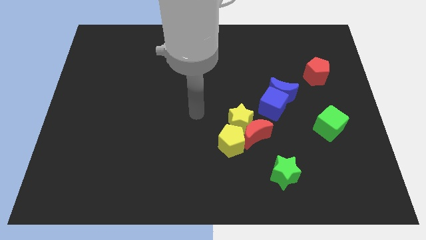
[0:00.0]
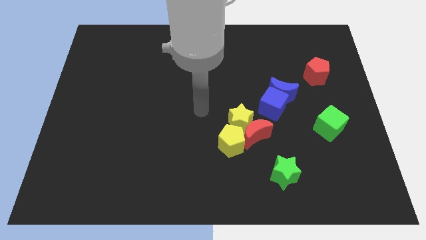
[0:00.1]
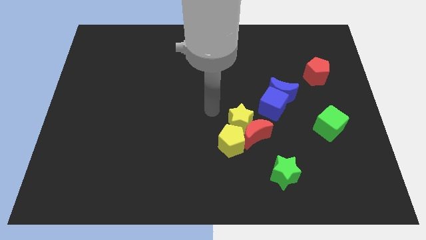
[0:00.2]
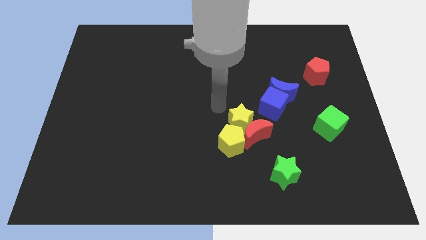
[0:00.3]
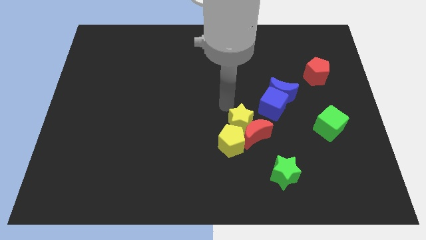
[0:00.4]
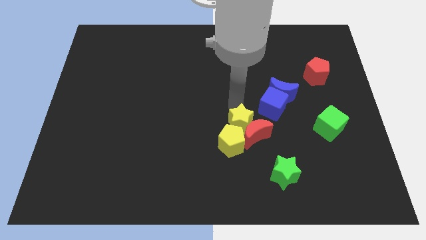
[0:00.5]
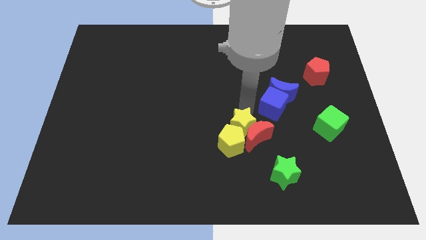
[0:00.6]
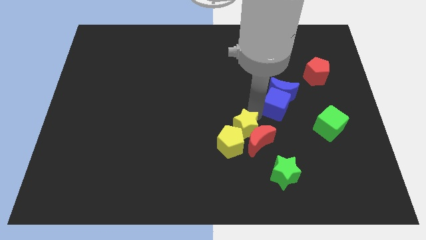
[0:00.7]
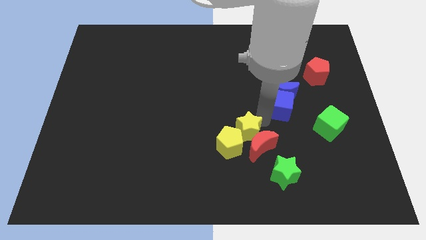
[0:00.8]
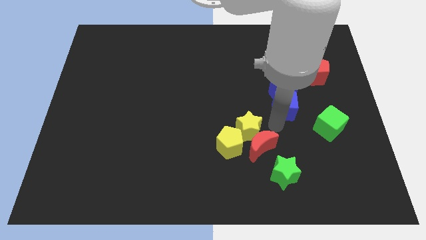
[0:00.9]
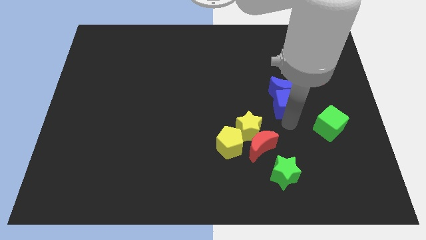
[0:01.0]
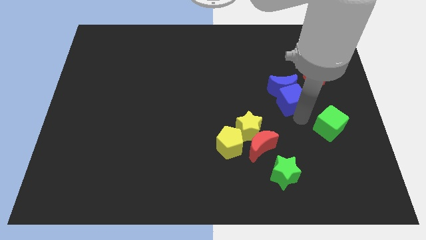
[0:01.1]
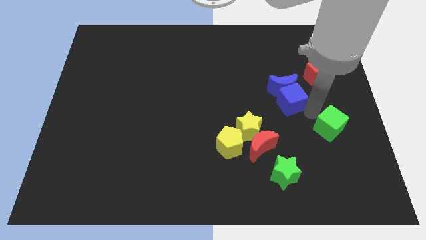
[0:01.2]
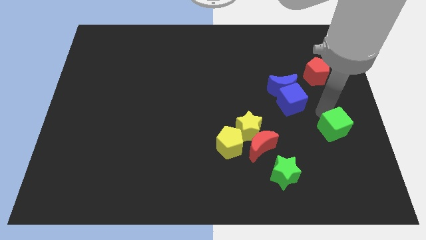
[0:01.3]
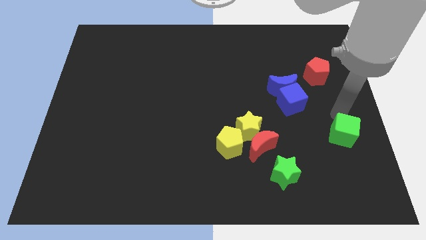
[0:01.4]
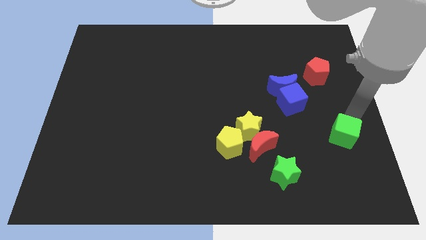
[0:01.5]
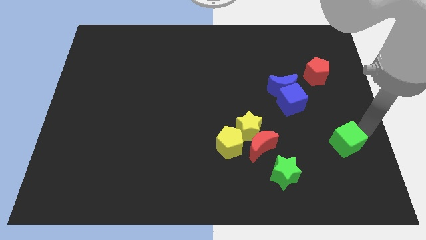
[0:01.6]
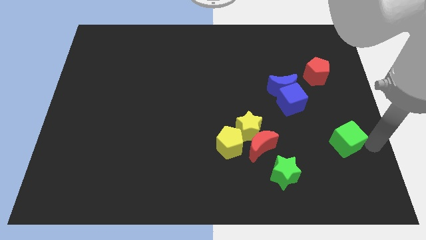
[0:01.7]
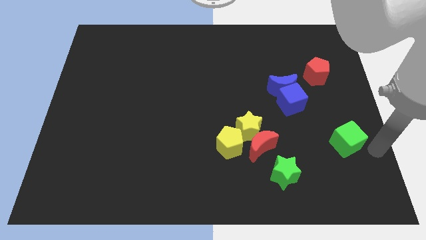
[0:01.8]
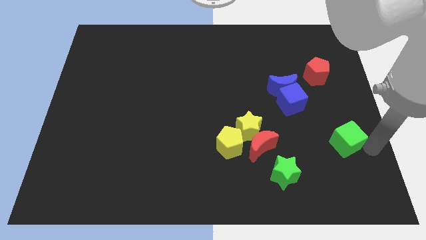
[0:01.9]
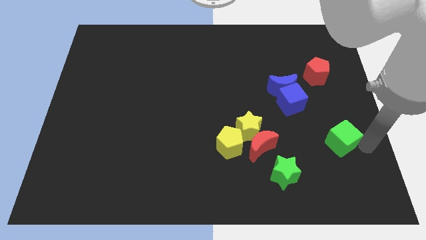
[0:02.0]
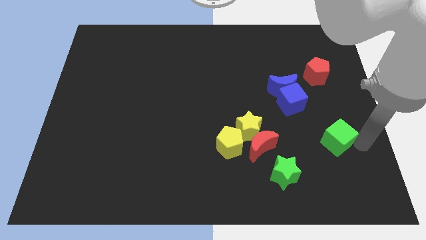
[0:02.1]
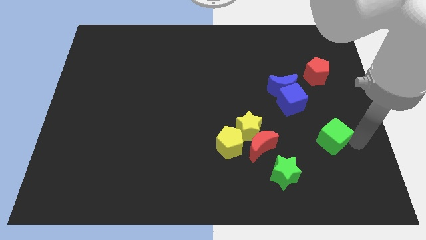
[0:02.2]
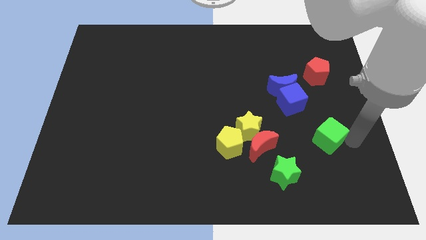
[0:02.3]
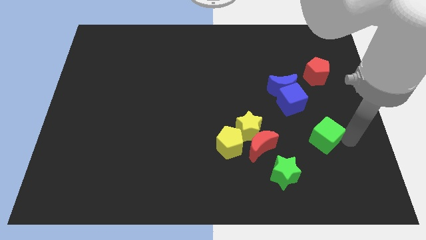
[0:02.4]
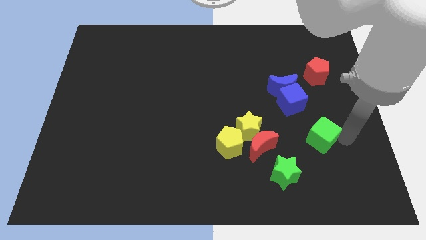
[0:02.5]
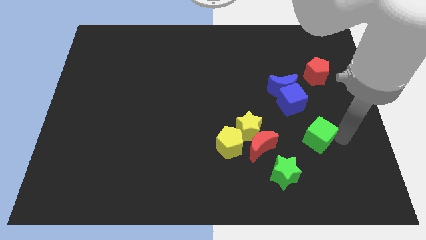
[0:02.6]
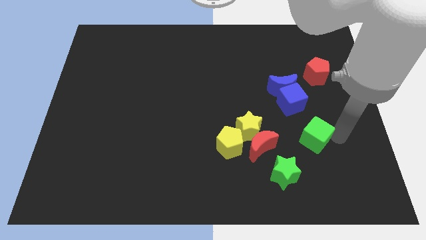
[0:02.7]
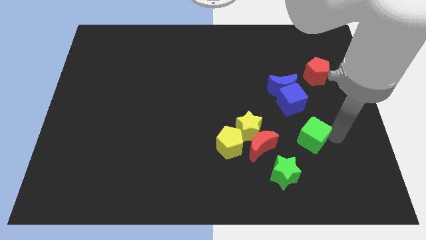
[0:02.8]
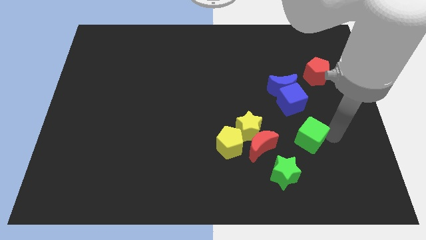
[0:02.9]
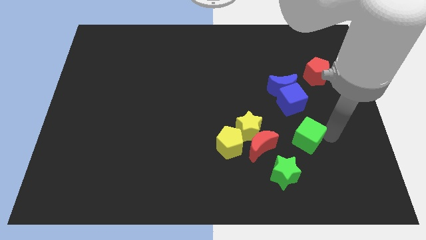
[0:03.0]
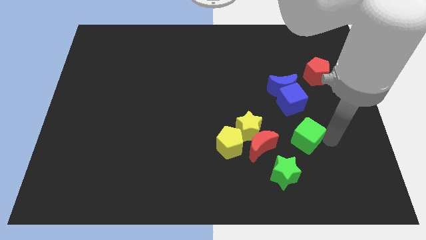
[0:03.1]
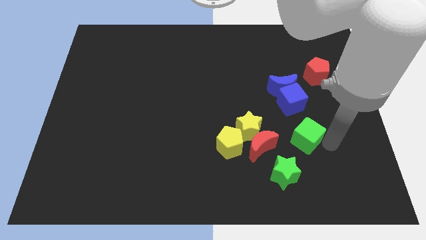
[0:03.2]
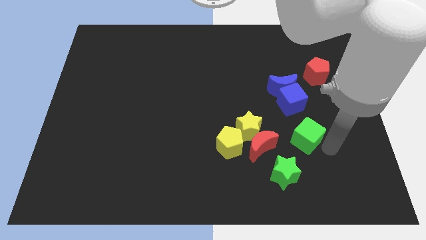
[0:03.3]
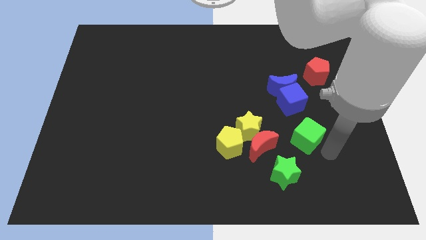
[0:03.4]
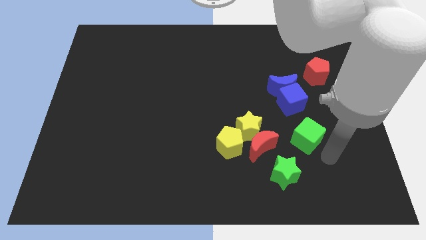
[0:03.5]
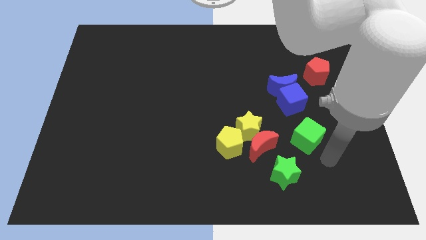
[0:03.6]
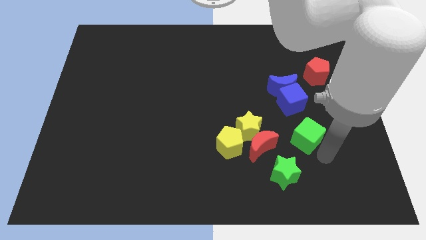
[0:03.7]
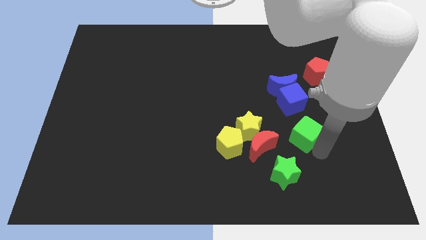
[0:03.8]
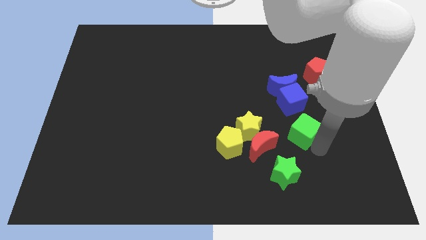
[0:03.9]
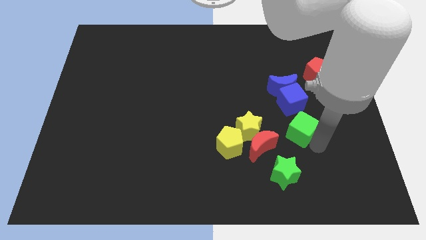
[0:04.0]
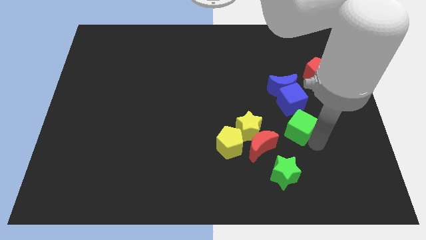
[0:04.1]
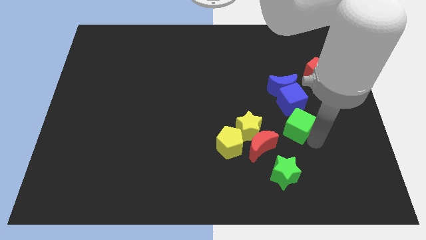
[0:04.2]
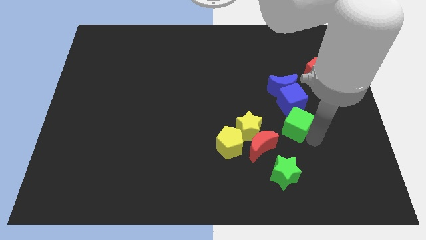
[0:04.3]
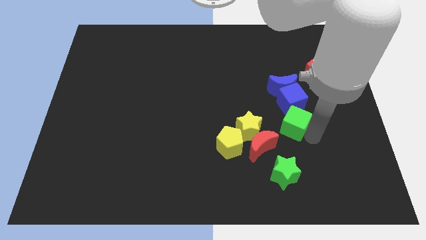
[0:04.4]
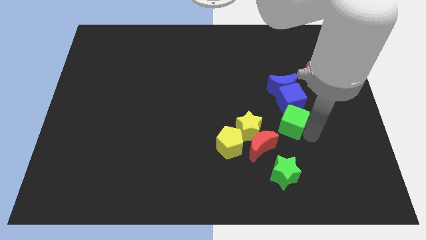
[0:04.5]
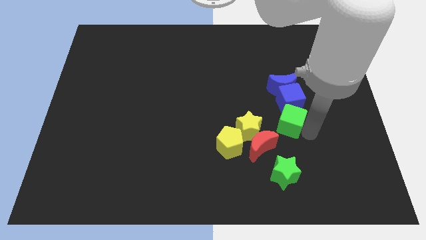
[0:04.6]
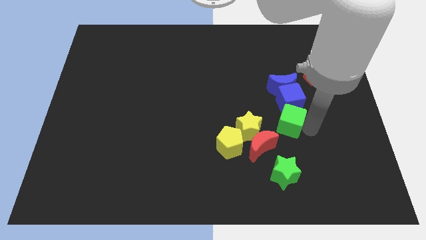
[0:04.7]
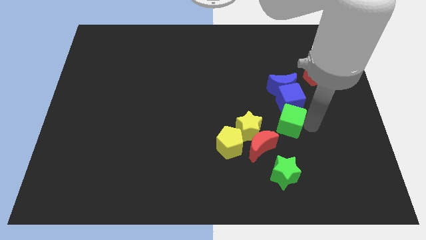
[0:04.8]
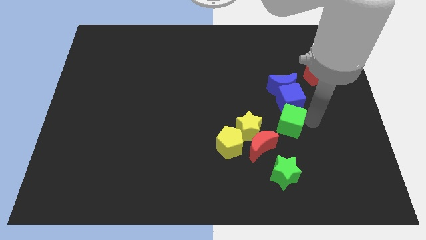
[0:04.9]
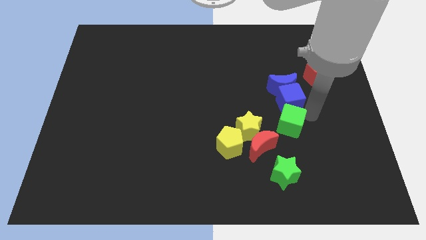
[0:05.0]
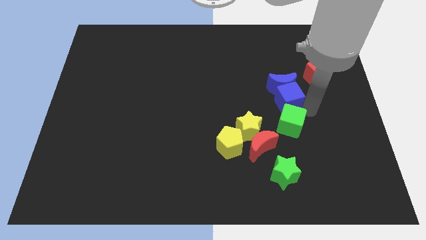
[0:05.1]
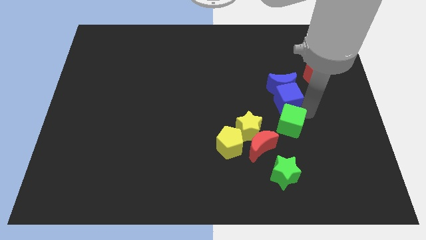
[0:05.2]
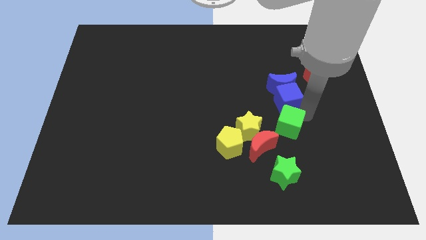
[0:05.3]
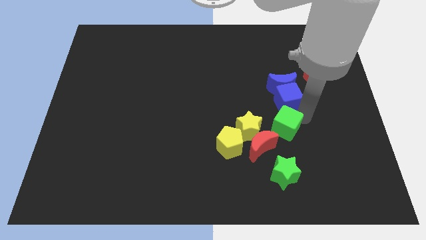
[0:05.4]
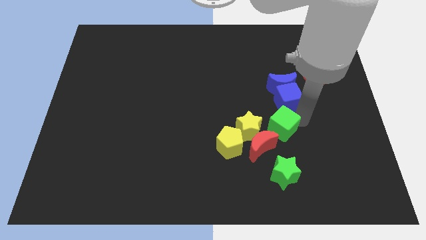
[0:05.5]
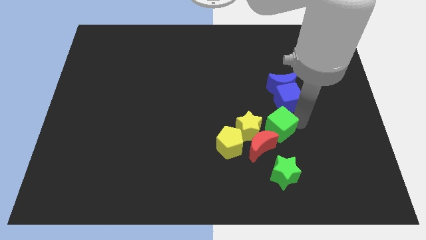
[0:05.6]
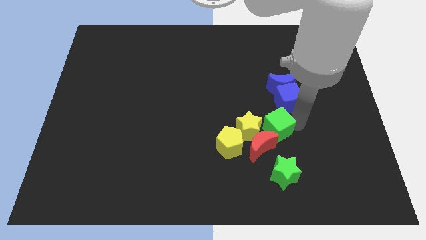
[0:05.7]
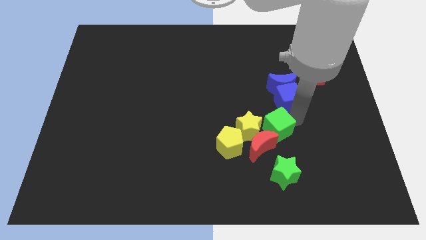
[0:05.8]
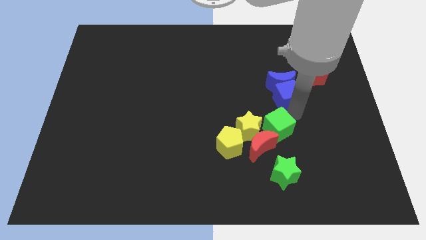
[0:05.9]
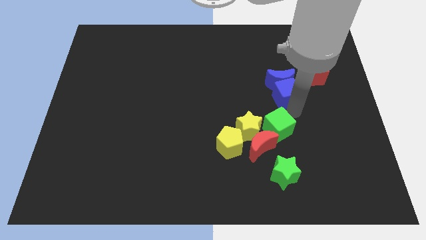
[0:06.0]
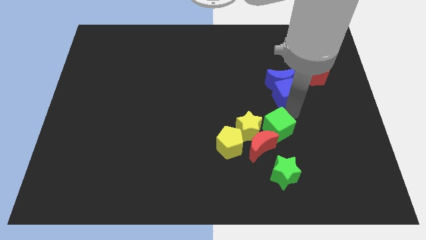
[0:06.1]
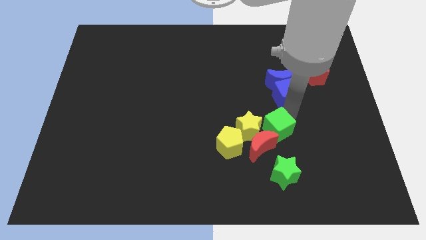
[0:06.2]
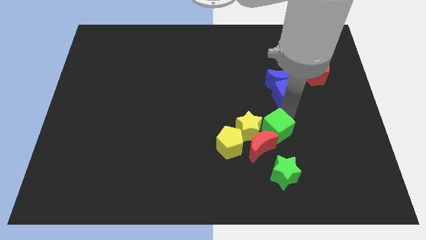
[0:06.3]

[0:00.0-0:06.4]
slide the green cube next to the red moon
